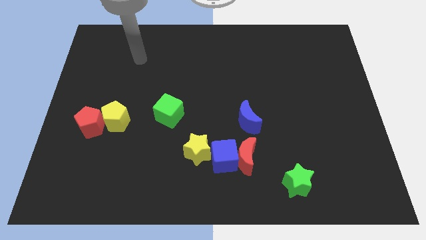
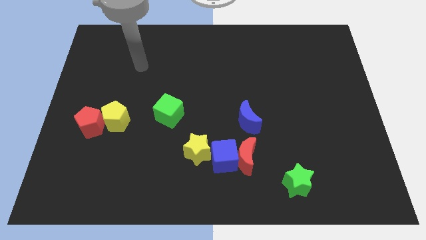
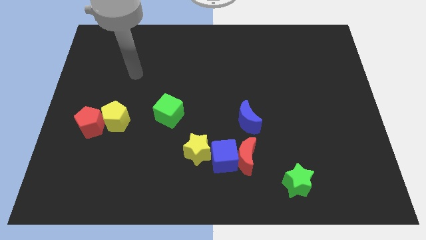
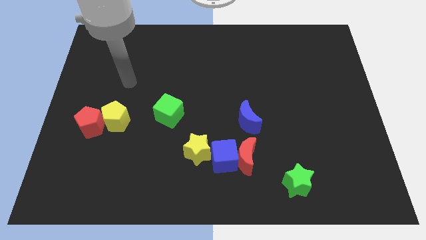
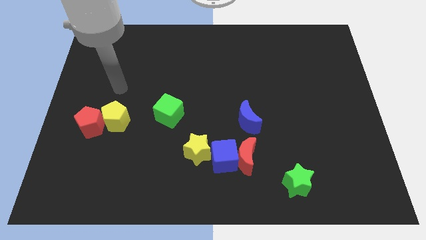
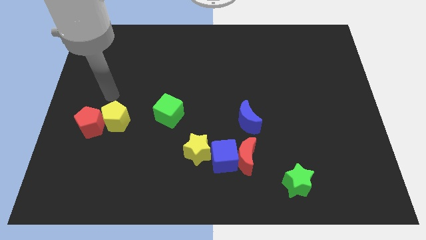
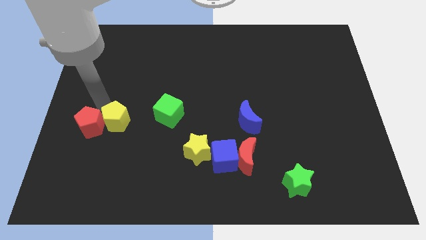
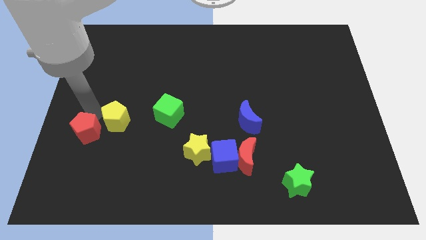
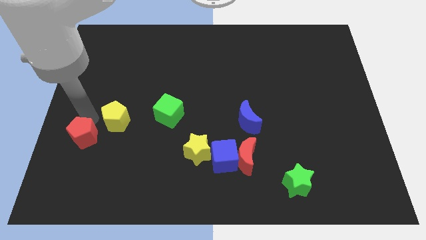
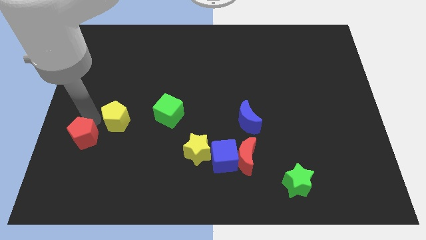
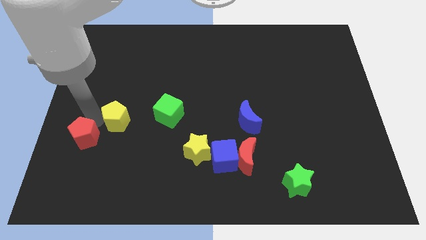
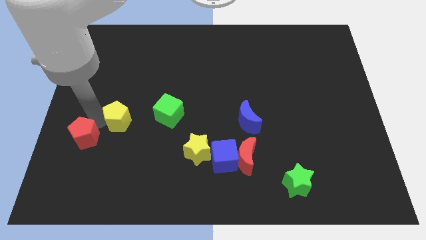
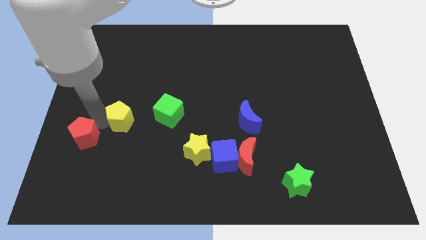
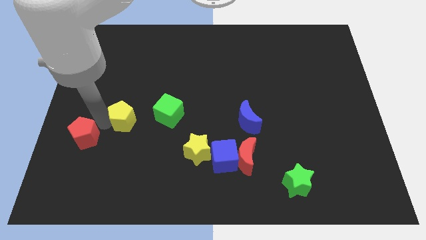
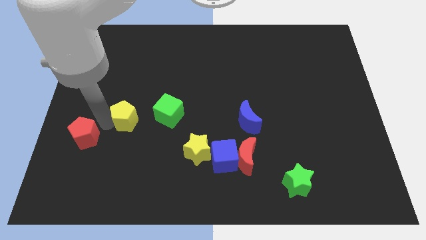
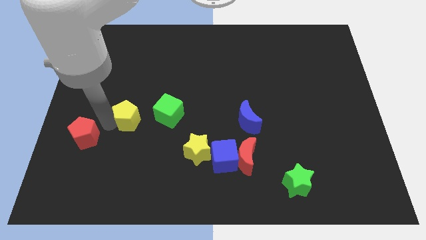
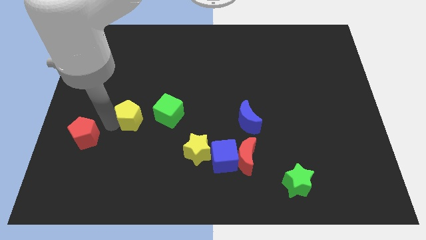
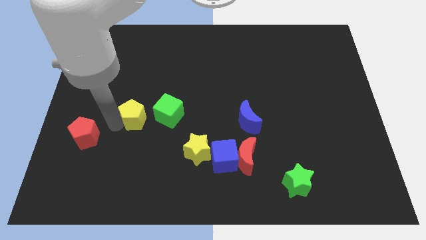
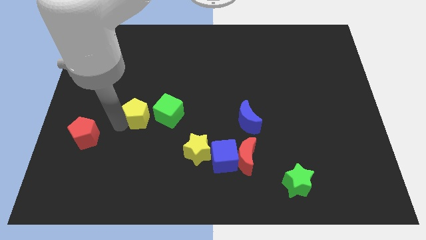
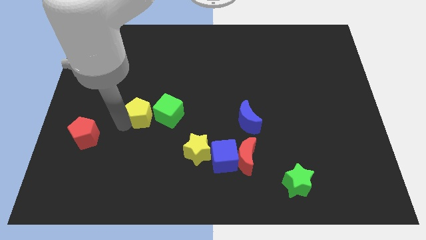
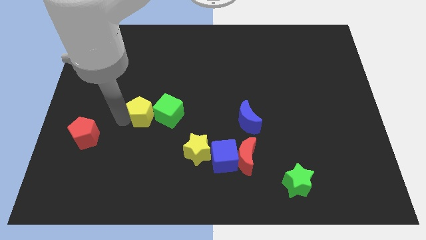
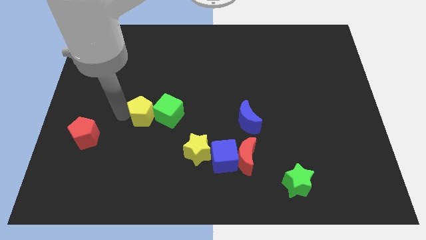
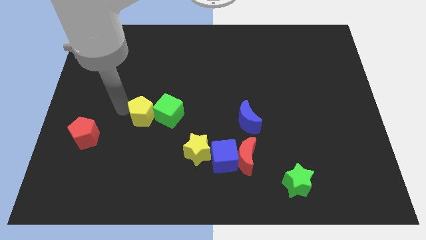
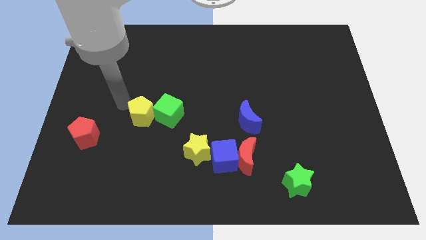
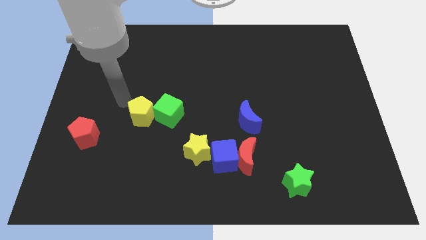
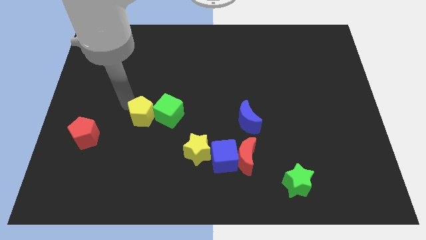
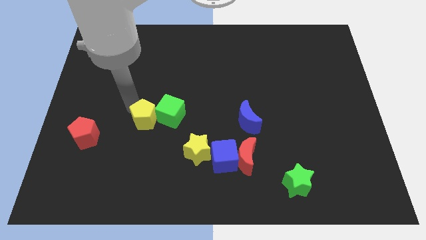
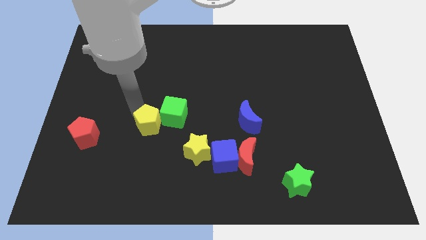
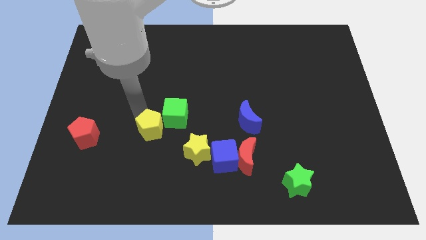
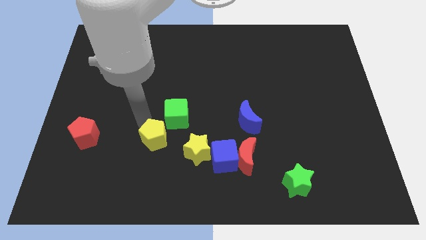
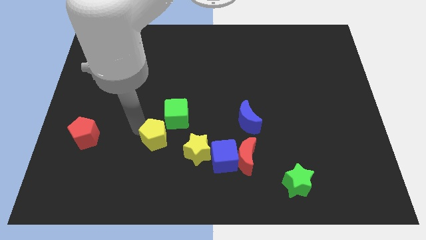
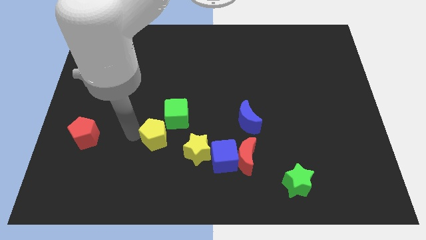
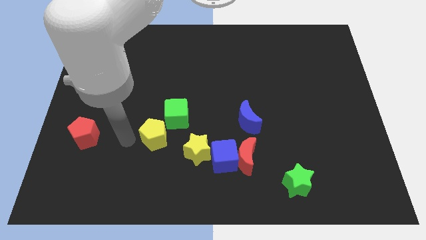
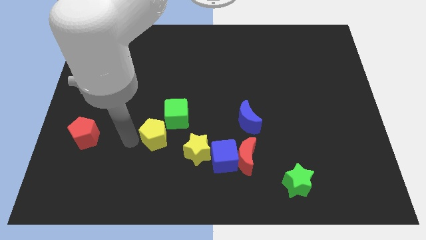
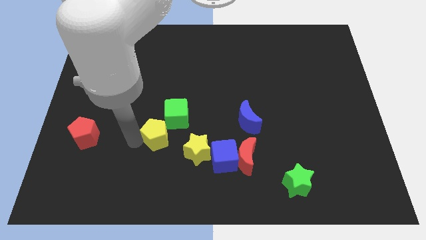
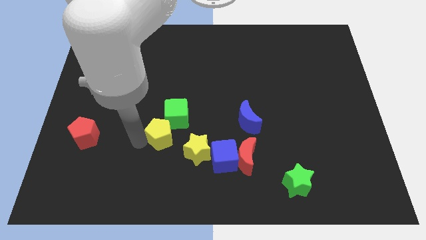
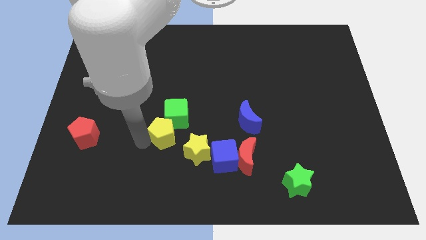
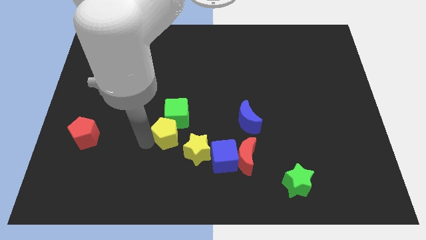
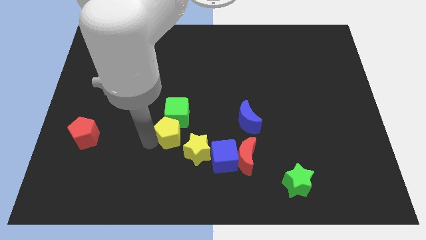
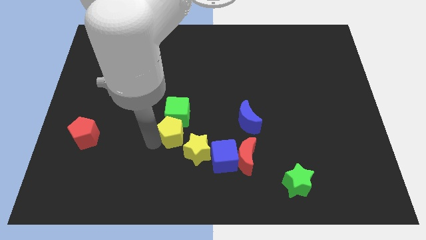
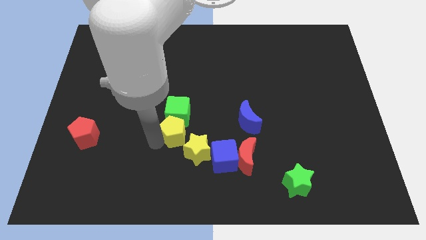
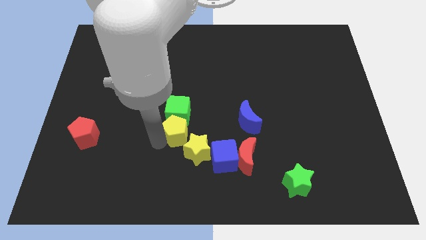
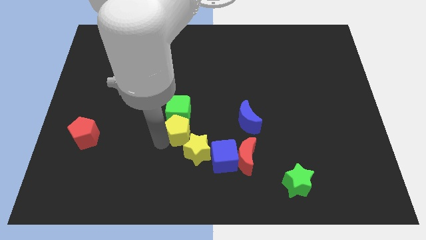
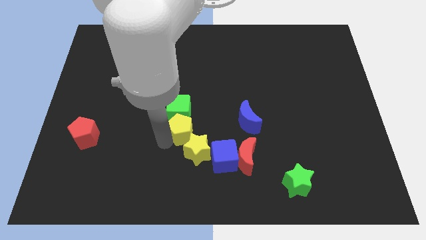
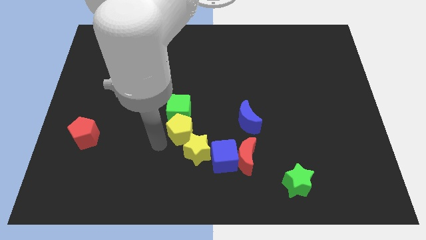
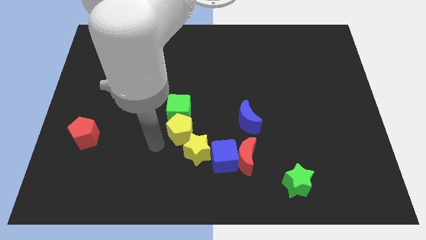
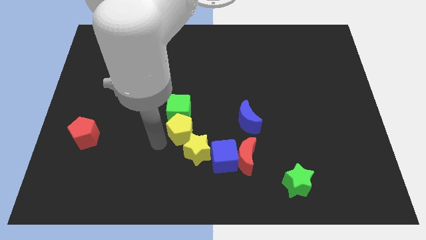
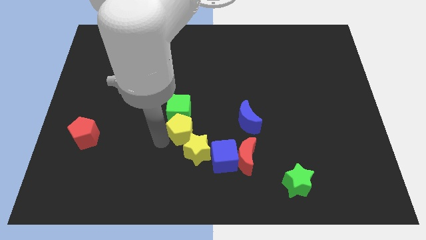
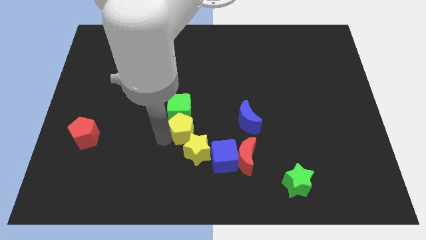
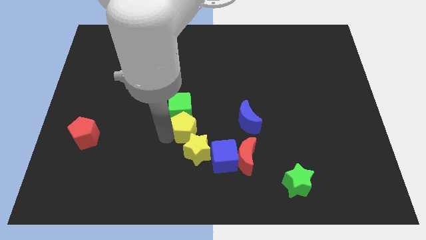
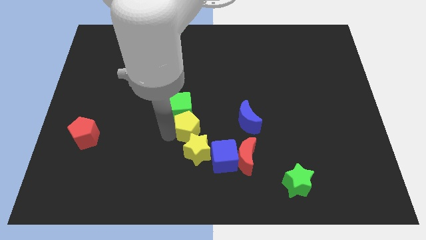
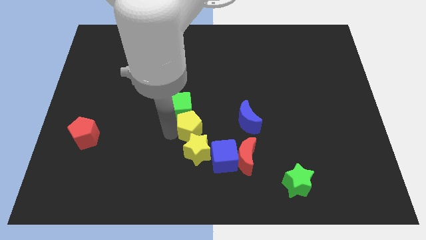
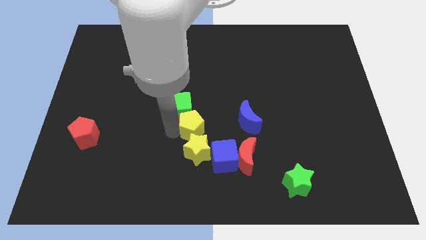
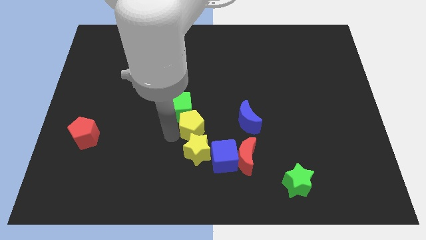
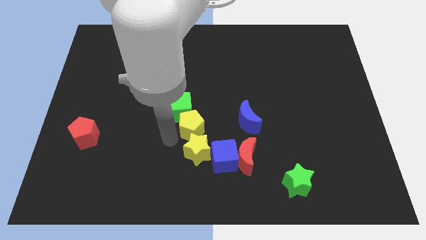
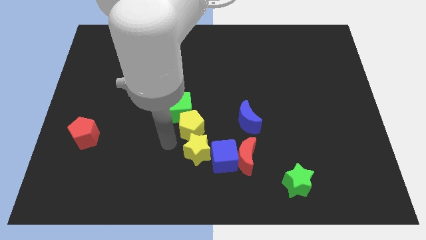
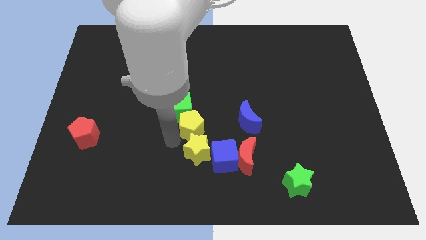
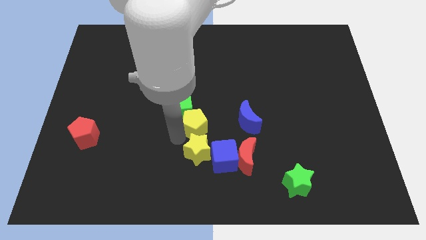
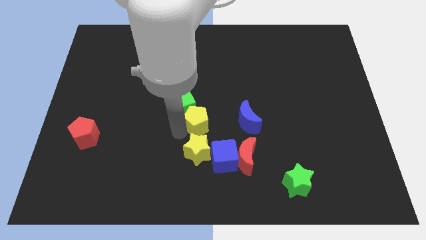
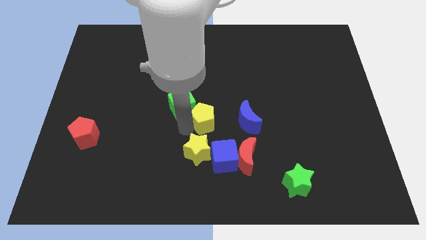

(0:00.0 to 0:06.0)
put the yellow pentagon above the blue cube
